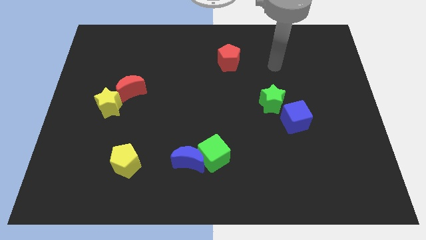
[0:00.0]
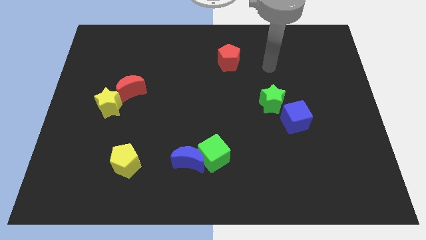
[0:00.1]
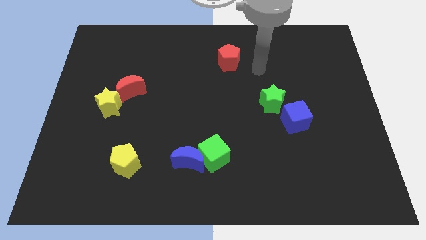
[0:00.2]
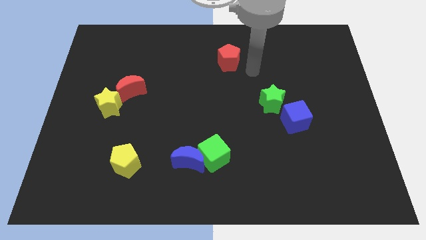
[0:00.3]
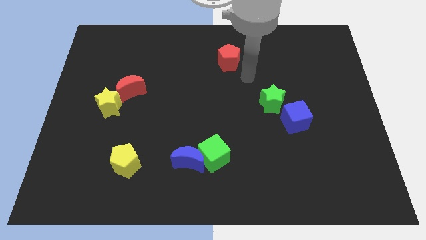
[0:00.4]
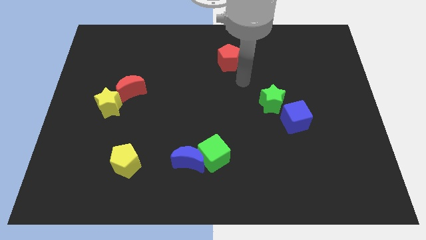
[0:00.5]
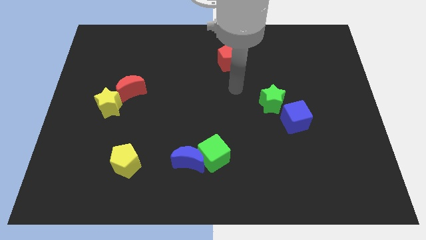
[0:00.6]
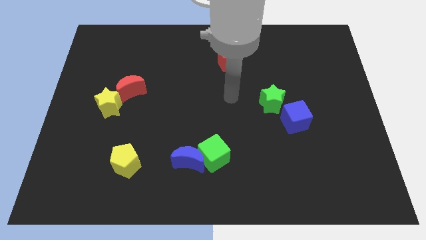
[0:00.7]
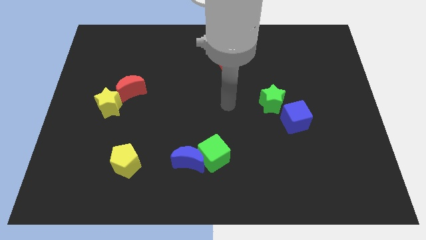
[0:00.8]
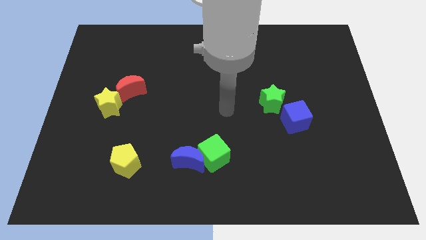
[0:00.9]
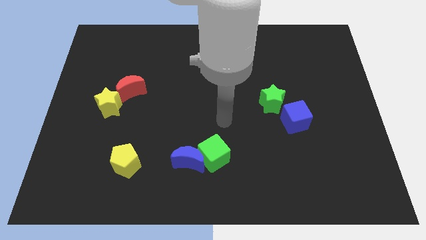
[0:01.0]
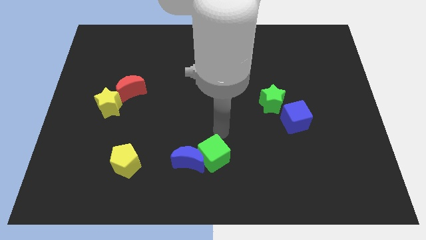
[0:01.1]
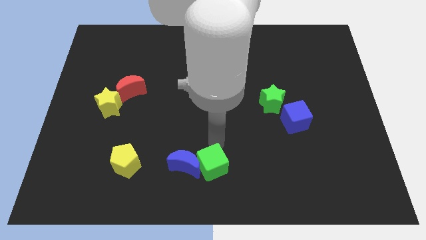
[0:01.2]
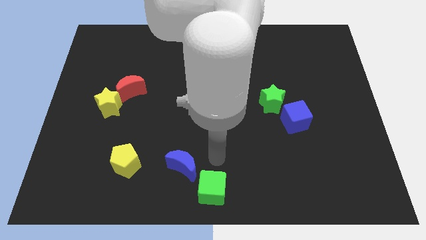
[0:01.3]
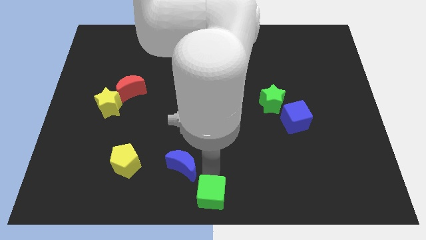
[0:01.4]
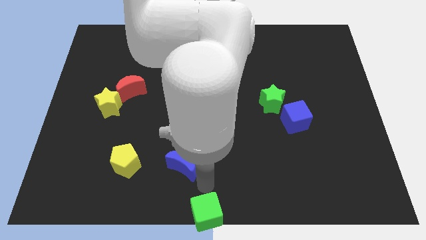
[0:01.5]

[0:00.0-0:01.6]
separate the blue moon from the green cube

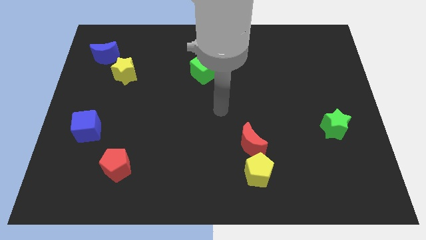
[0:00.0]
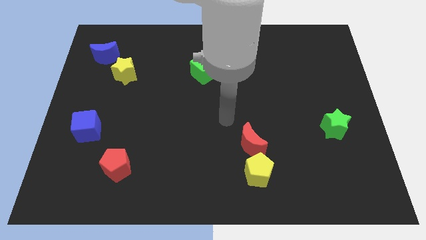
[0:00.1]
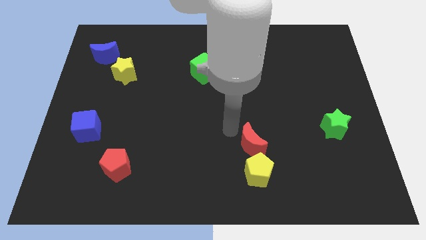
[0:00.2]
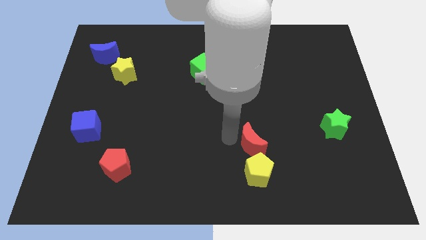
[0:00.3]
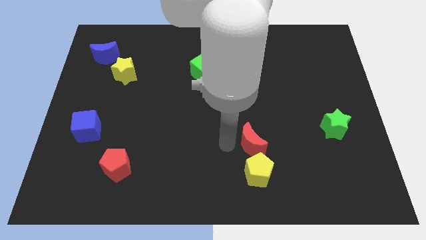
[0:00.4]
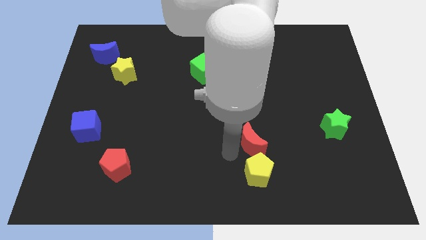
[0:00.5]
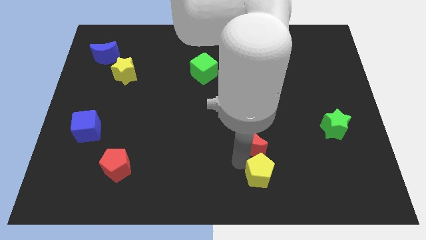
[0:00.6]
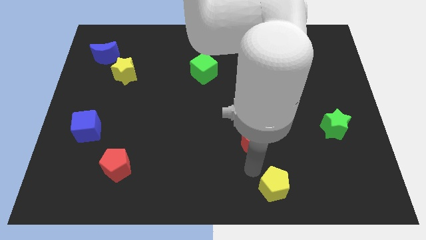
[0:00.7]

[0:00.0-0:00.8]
pull the red moon apart from the yellow pentagon

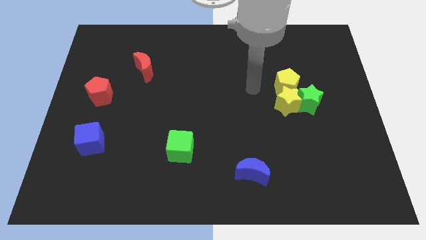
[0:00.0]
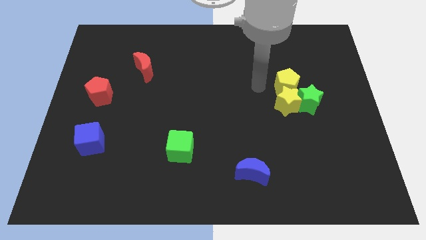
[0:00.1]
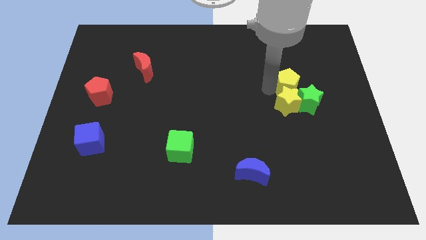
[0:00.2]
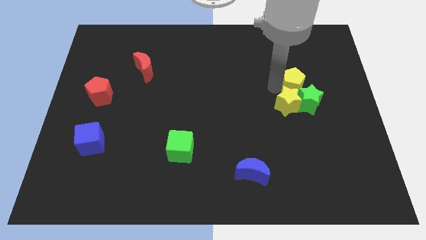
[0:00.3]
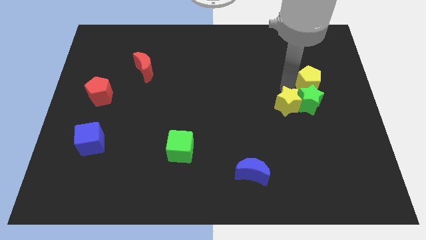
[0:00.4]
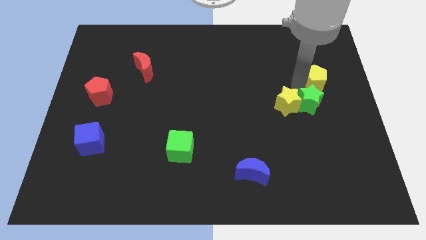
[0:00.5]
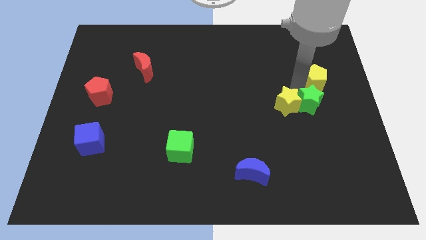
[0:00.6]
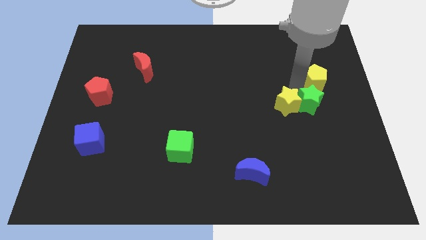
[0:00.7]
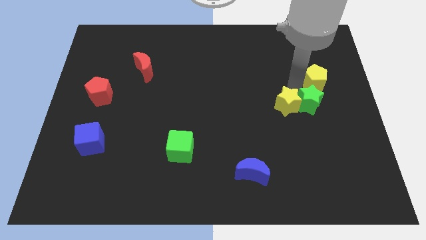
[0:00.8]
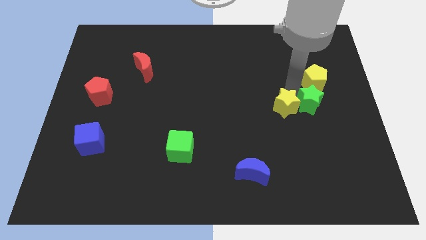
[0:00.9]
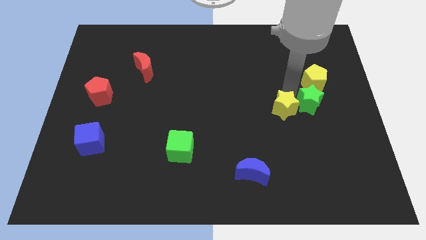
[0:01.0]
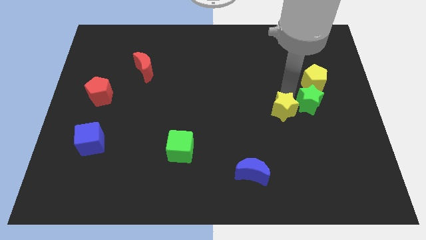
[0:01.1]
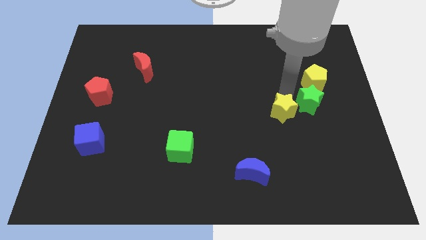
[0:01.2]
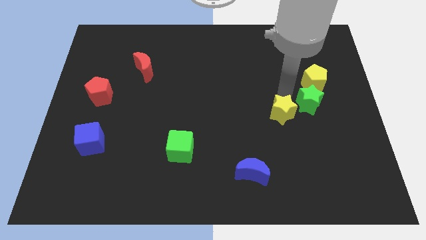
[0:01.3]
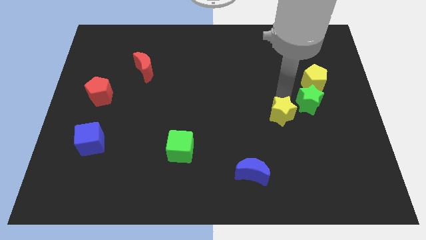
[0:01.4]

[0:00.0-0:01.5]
separate the yellow star from the green star and yellow pentagon

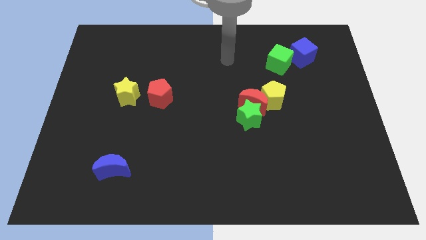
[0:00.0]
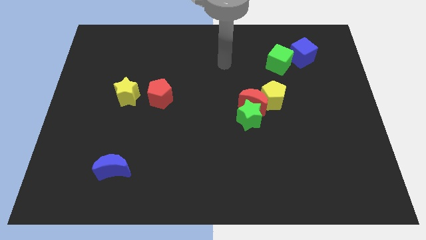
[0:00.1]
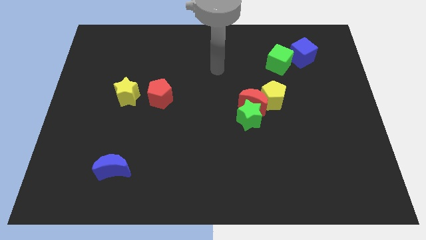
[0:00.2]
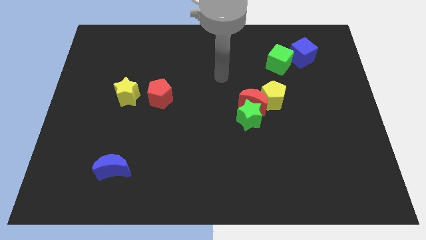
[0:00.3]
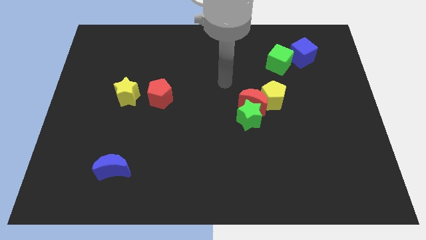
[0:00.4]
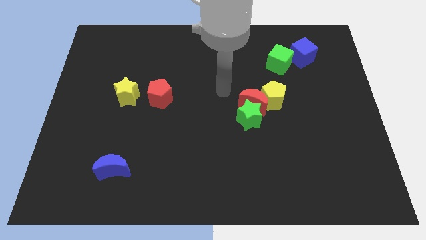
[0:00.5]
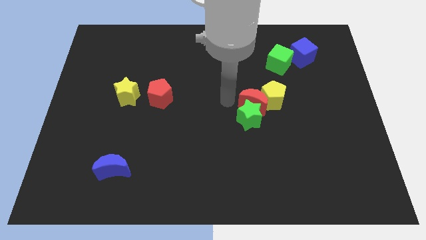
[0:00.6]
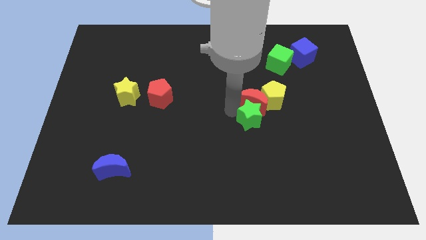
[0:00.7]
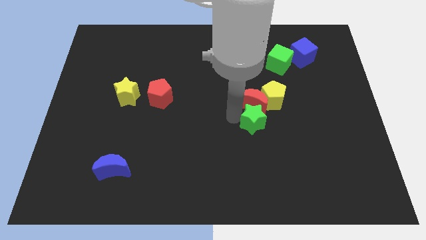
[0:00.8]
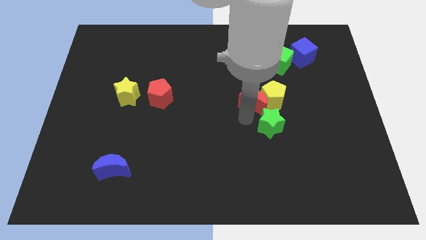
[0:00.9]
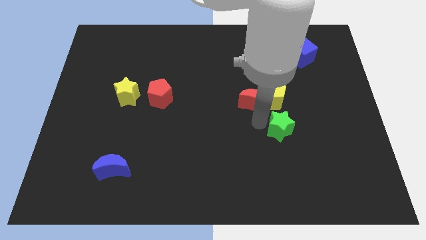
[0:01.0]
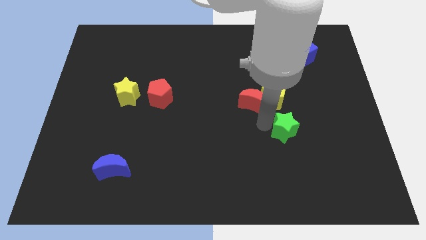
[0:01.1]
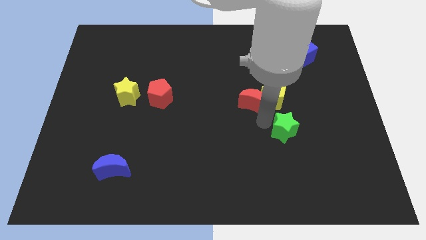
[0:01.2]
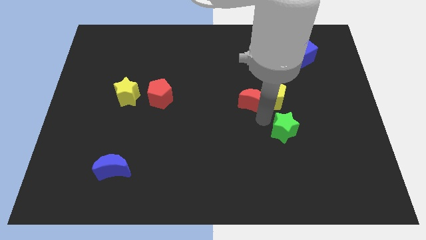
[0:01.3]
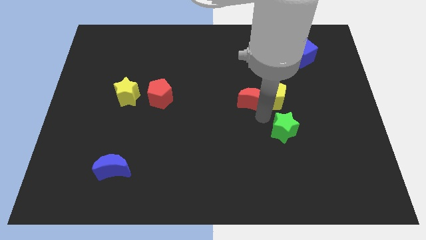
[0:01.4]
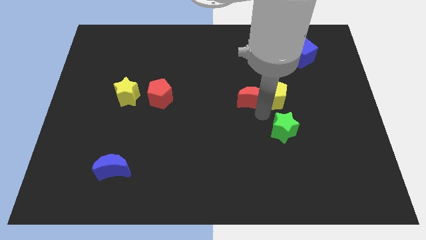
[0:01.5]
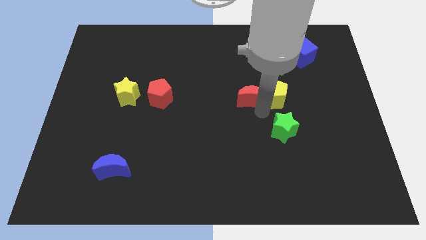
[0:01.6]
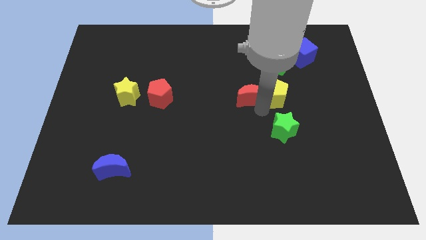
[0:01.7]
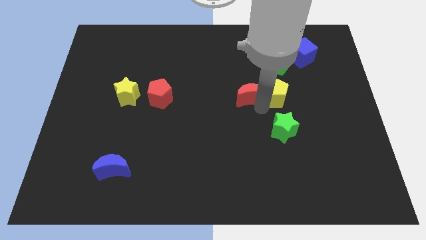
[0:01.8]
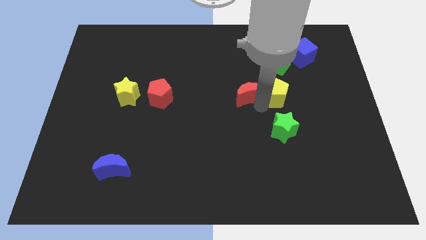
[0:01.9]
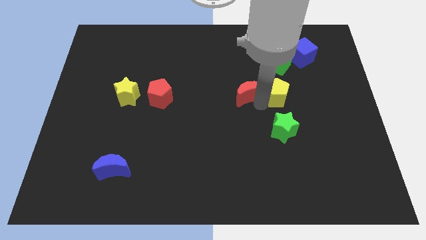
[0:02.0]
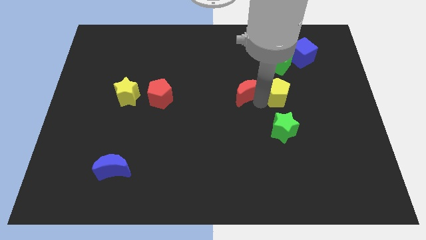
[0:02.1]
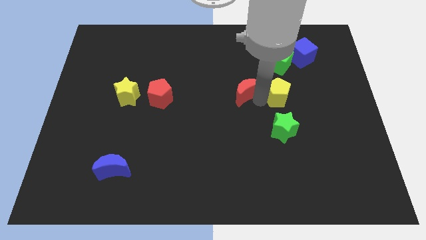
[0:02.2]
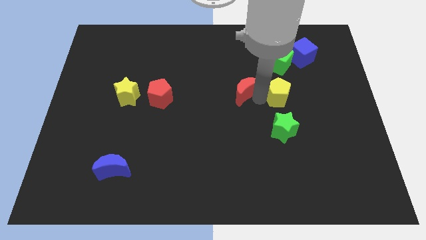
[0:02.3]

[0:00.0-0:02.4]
separate the red moon from the green star and yellow pentagon

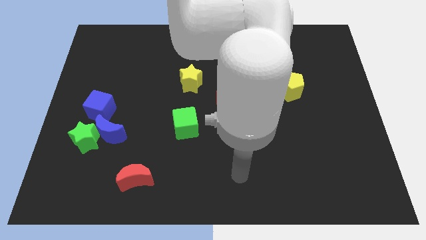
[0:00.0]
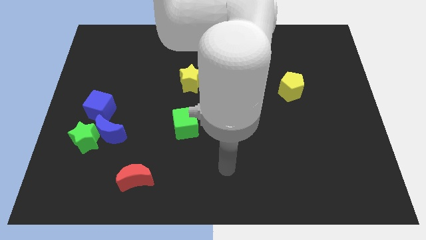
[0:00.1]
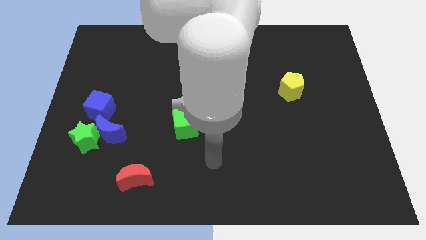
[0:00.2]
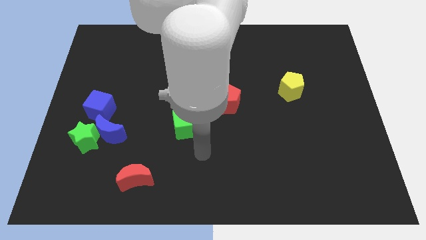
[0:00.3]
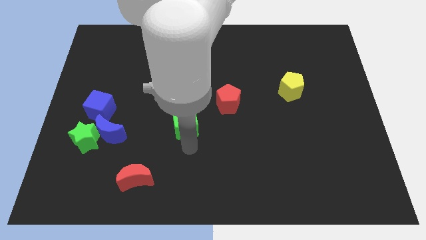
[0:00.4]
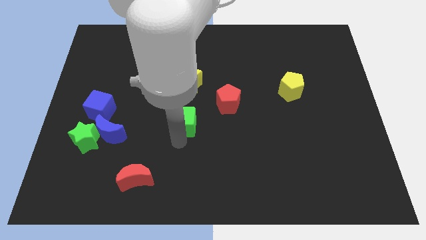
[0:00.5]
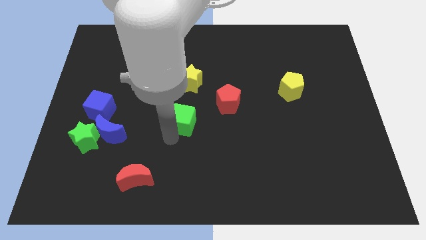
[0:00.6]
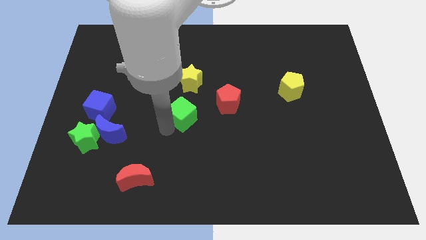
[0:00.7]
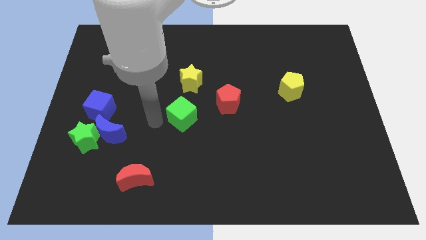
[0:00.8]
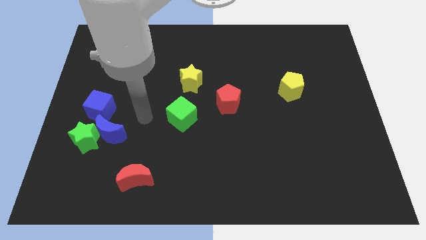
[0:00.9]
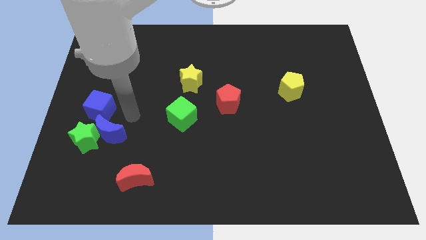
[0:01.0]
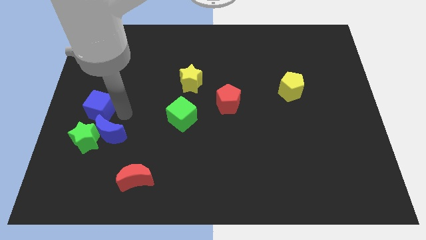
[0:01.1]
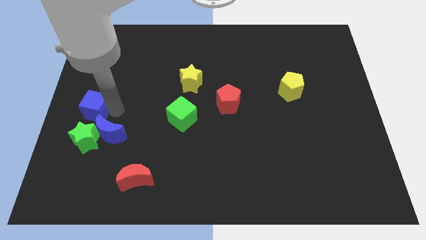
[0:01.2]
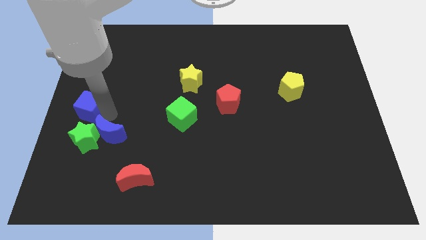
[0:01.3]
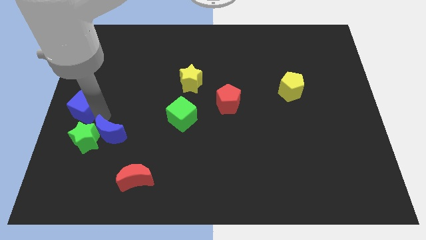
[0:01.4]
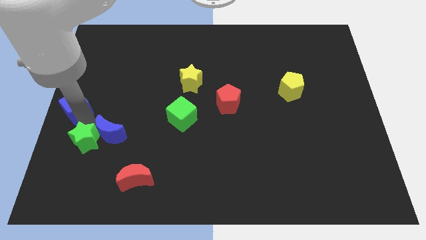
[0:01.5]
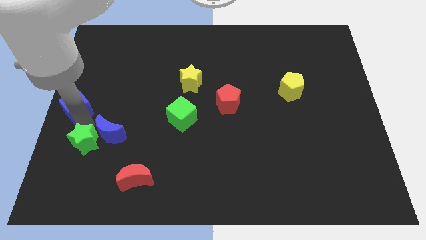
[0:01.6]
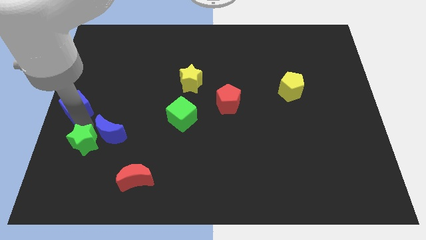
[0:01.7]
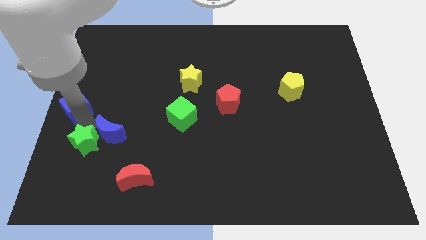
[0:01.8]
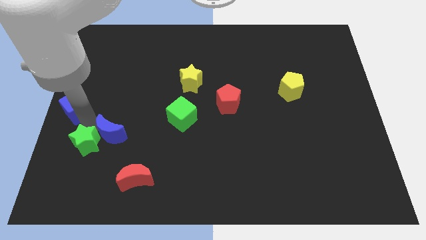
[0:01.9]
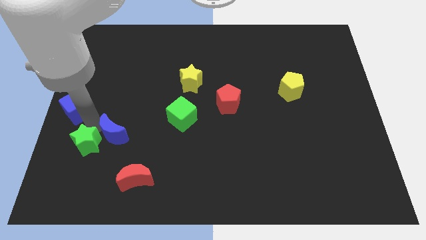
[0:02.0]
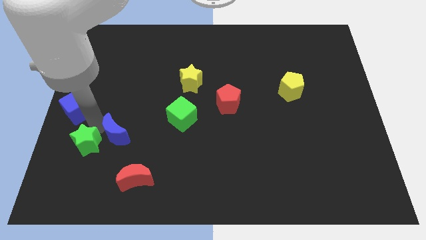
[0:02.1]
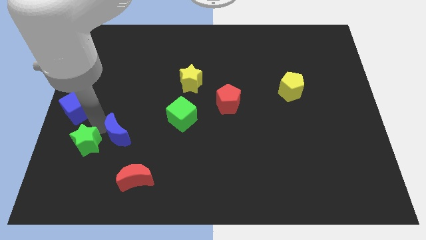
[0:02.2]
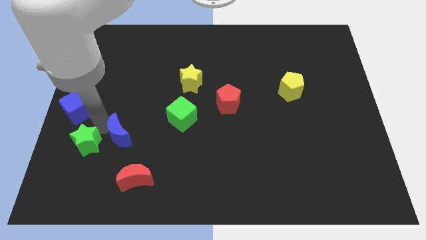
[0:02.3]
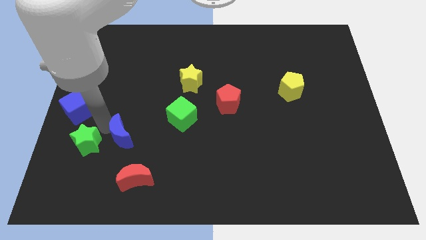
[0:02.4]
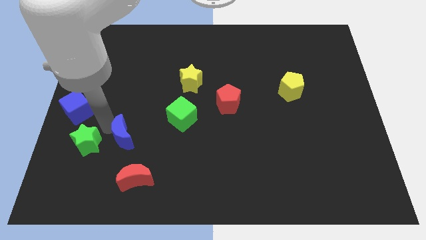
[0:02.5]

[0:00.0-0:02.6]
move the blue moon away from the green star and blue cube

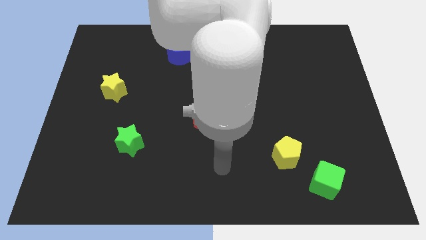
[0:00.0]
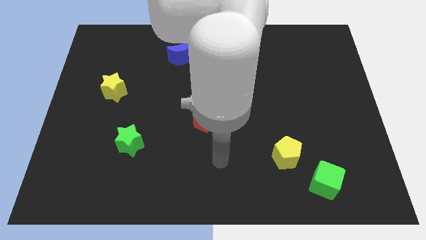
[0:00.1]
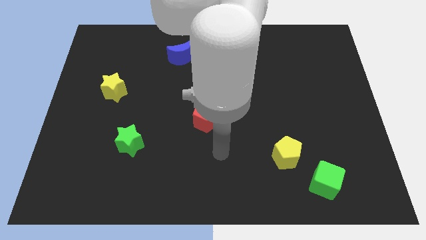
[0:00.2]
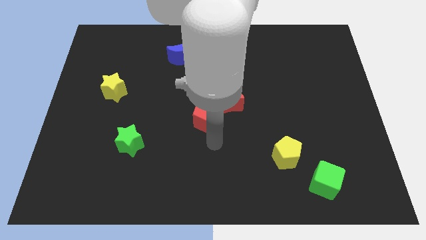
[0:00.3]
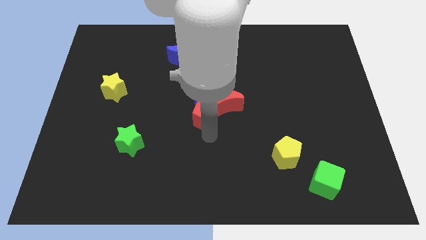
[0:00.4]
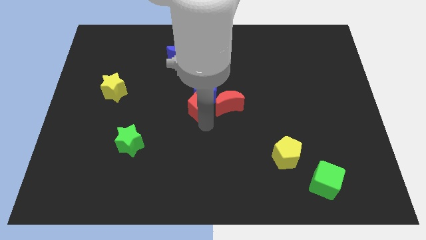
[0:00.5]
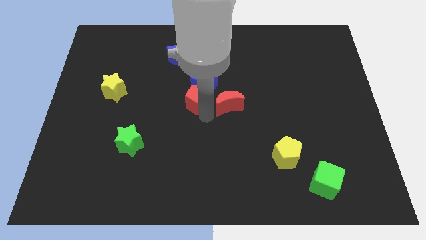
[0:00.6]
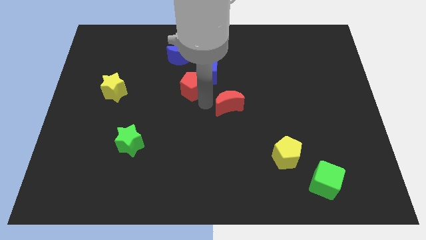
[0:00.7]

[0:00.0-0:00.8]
separate the red moon from the blue cube and red pentagon
